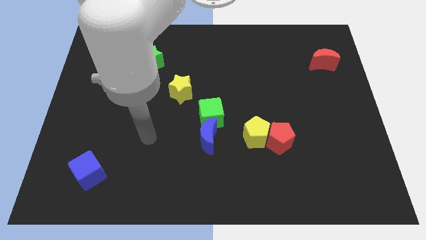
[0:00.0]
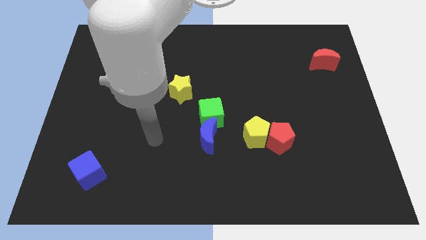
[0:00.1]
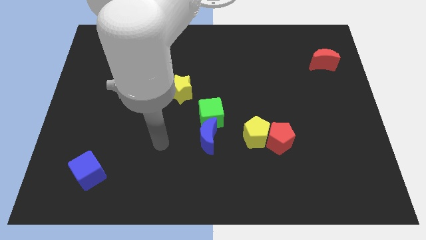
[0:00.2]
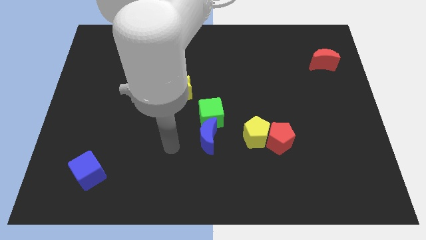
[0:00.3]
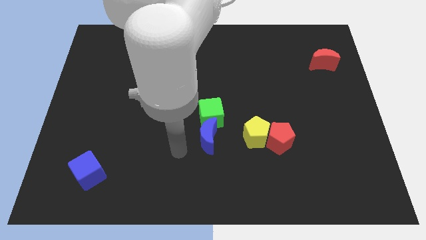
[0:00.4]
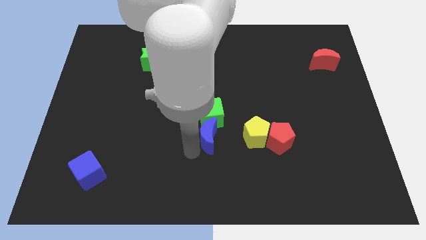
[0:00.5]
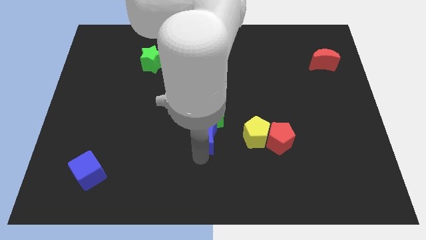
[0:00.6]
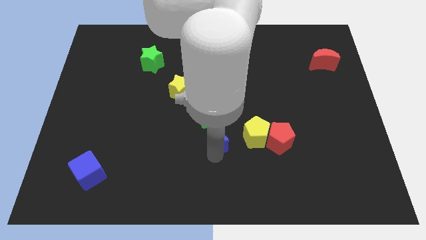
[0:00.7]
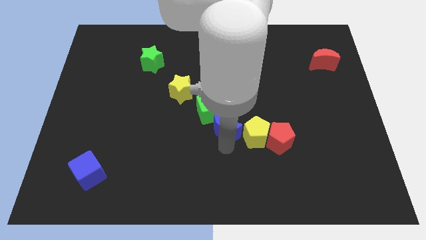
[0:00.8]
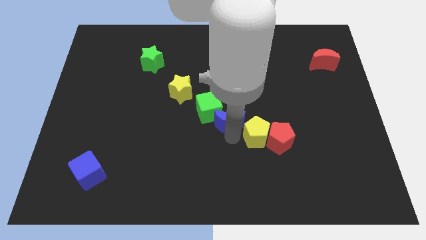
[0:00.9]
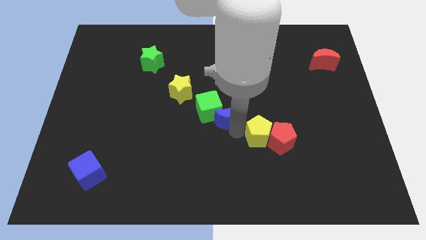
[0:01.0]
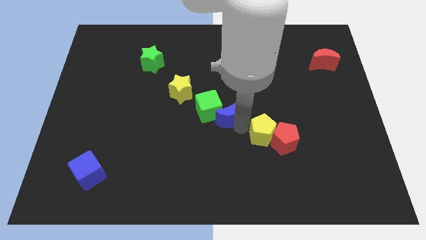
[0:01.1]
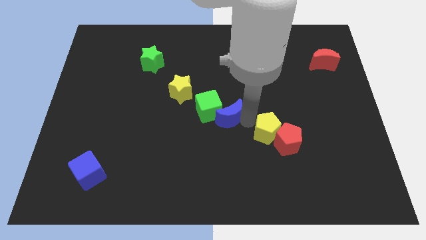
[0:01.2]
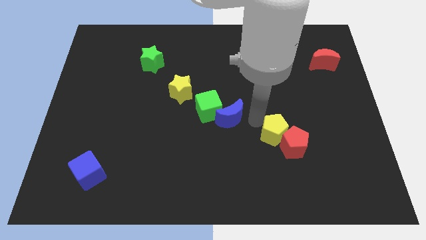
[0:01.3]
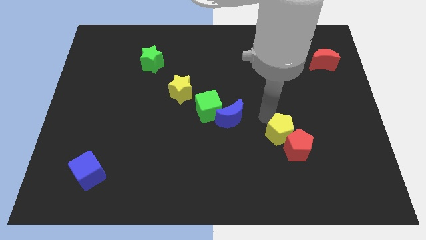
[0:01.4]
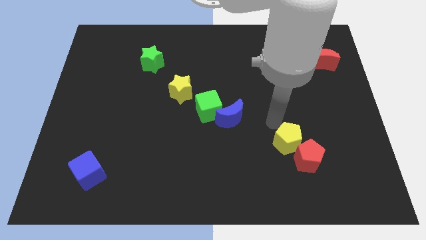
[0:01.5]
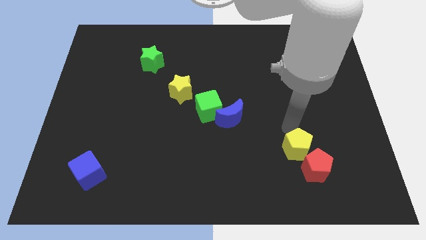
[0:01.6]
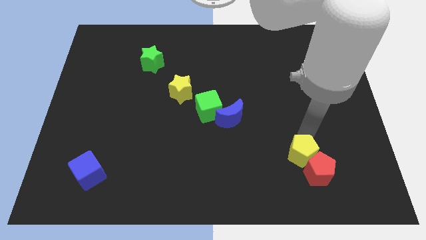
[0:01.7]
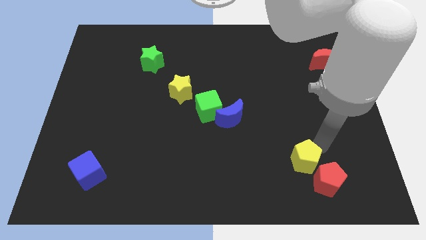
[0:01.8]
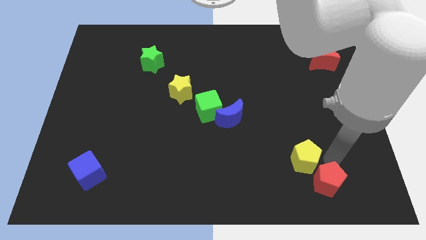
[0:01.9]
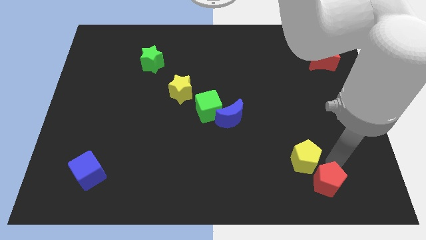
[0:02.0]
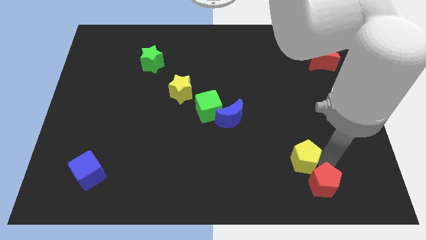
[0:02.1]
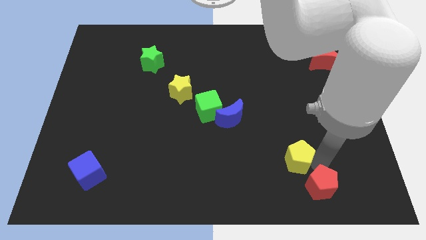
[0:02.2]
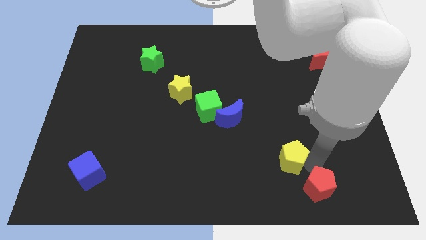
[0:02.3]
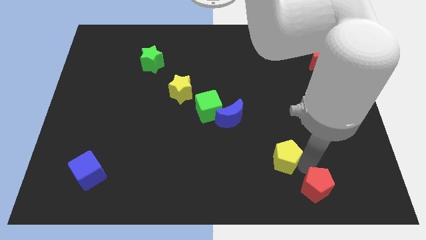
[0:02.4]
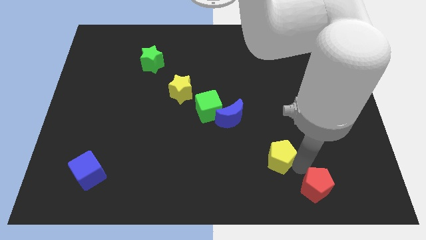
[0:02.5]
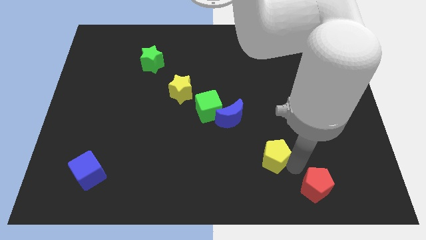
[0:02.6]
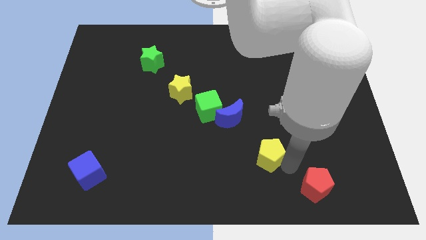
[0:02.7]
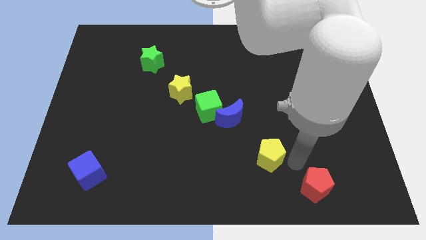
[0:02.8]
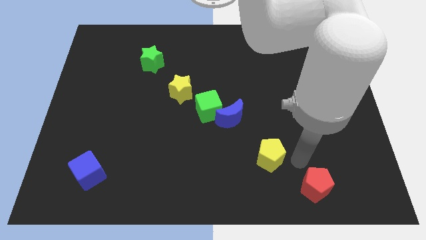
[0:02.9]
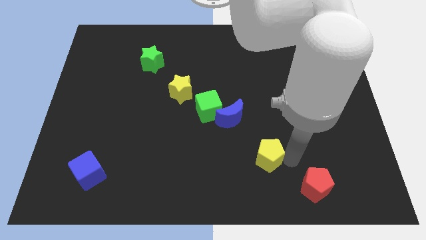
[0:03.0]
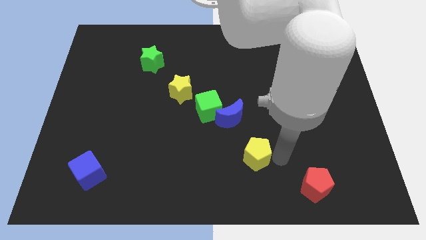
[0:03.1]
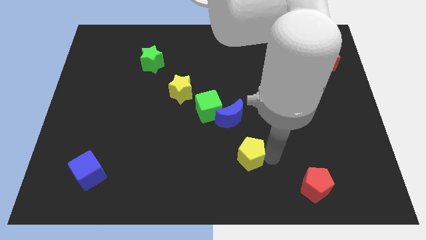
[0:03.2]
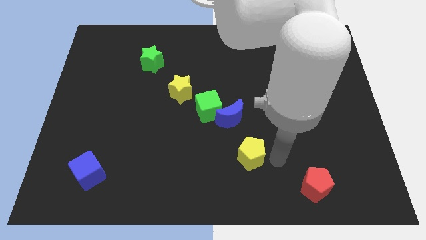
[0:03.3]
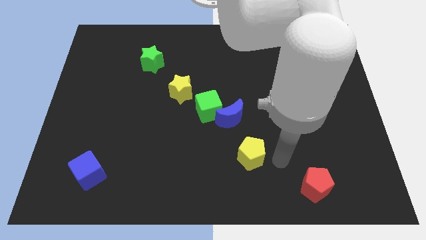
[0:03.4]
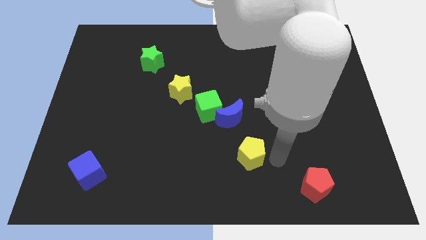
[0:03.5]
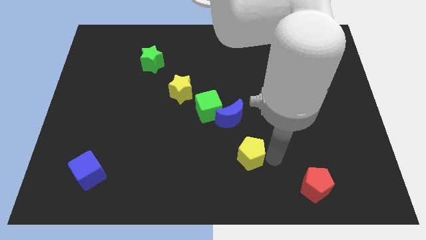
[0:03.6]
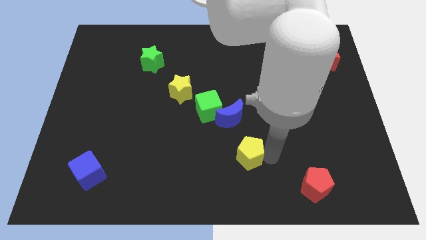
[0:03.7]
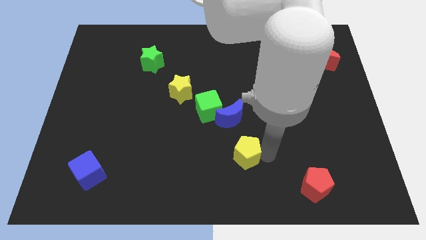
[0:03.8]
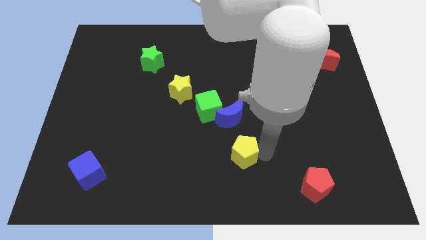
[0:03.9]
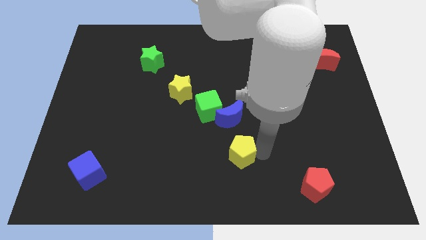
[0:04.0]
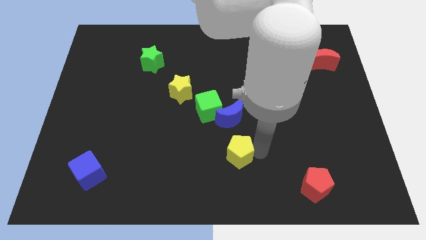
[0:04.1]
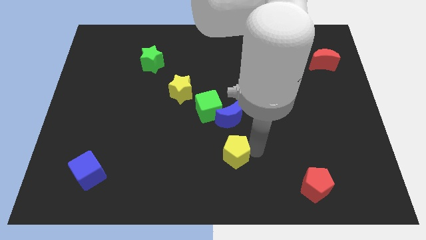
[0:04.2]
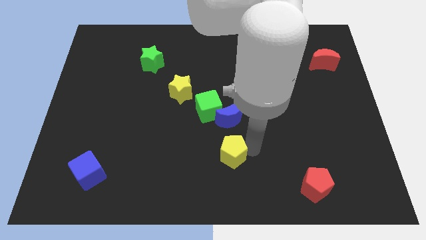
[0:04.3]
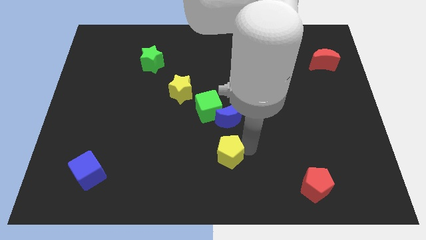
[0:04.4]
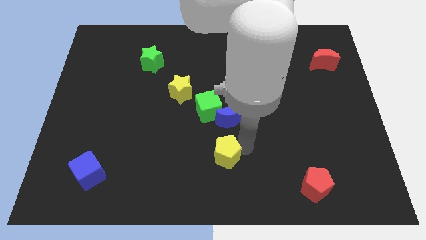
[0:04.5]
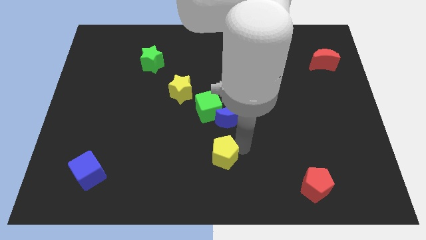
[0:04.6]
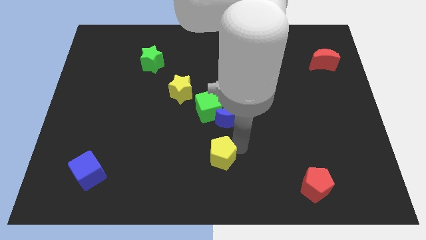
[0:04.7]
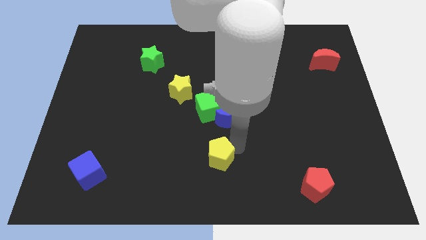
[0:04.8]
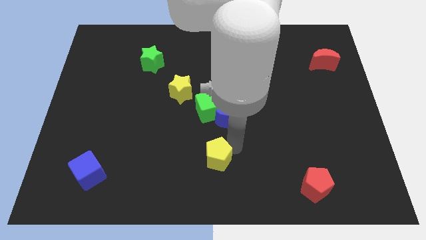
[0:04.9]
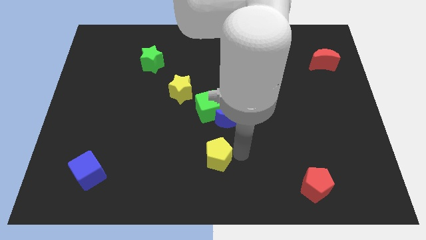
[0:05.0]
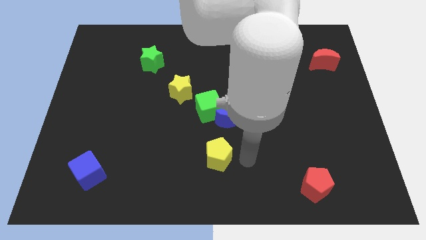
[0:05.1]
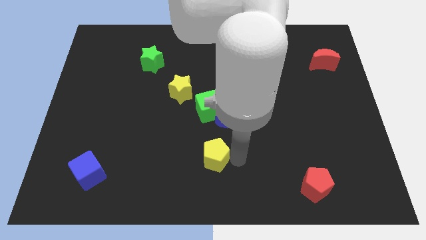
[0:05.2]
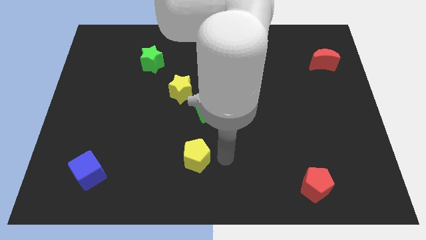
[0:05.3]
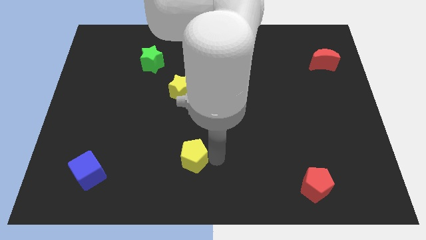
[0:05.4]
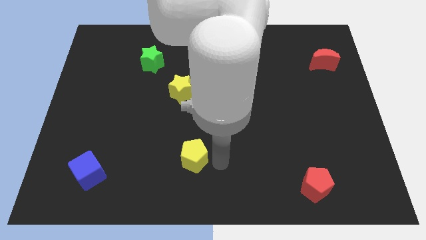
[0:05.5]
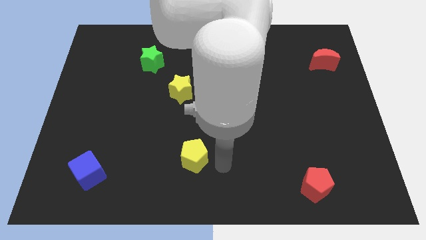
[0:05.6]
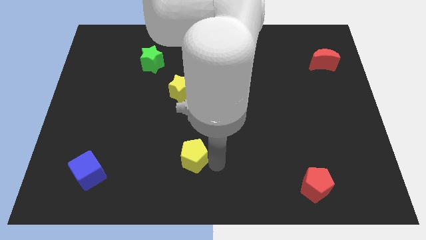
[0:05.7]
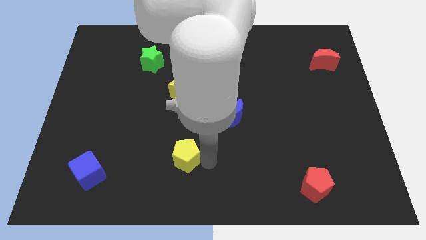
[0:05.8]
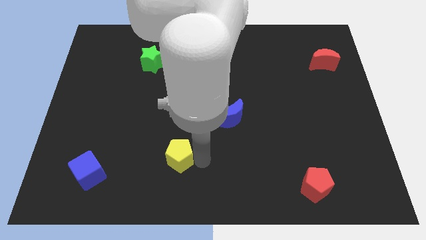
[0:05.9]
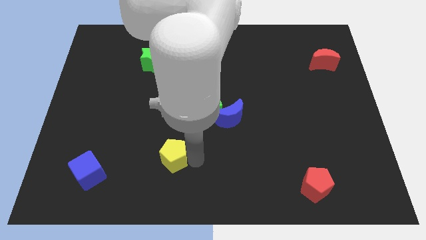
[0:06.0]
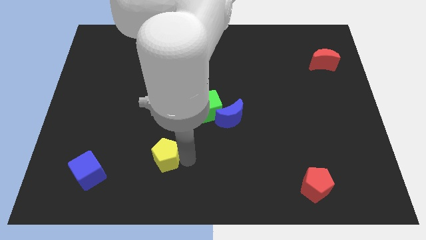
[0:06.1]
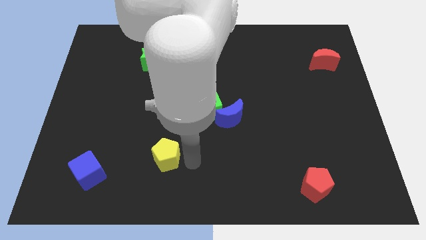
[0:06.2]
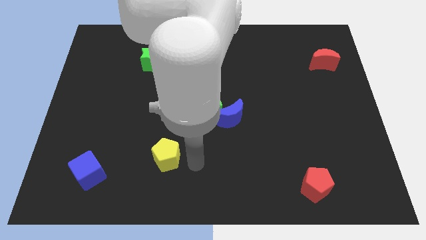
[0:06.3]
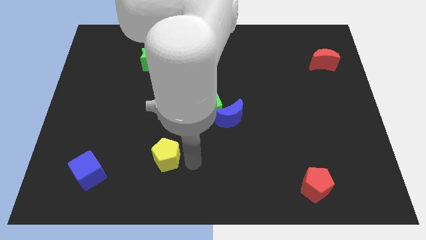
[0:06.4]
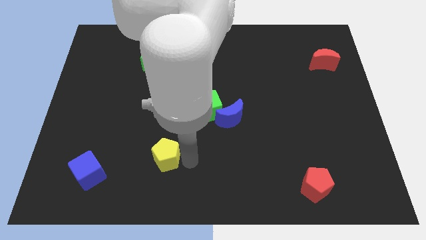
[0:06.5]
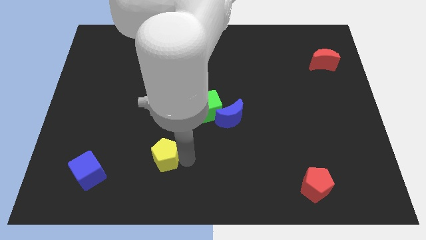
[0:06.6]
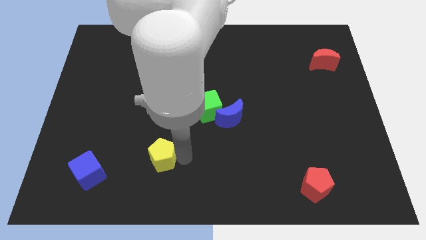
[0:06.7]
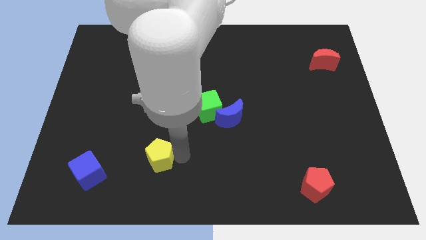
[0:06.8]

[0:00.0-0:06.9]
slide the yellow pentagon to the left

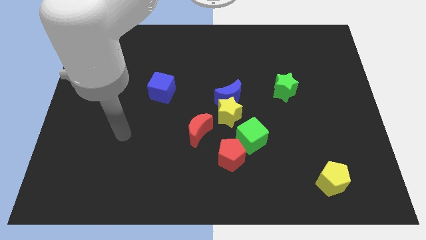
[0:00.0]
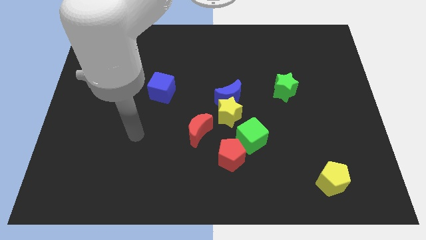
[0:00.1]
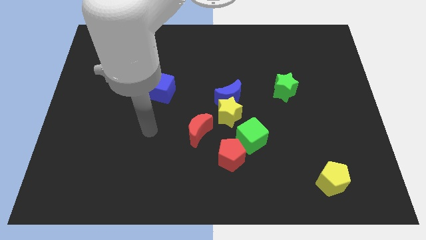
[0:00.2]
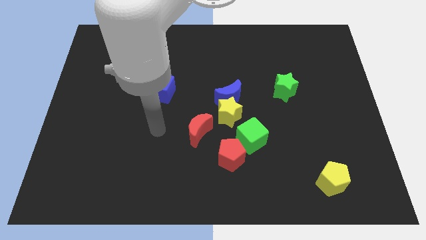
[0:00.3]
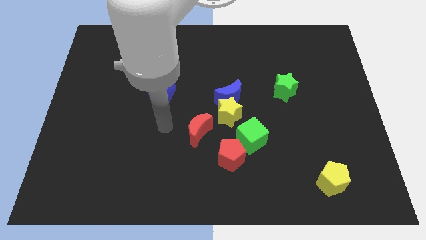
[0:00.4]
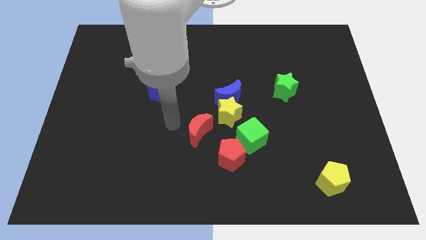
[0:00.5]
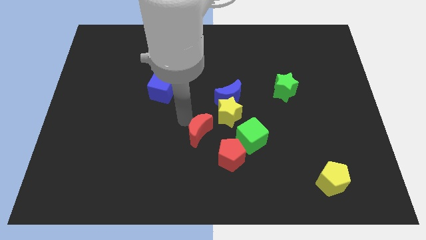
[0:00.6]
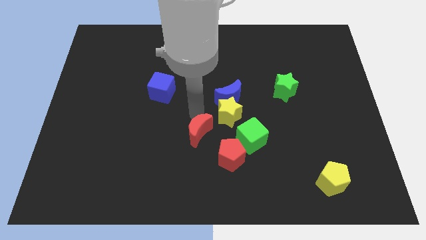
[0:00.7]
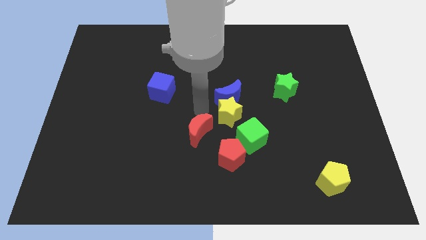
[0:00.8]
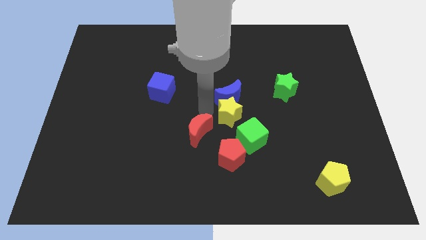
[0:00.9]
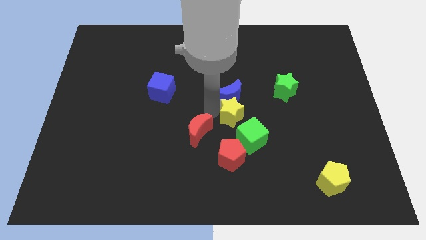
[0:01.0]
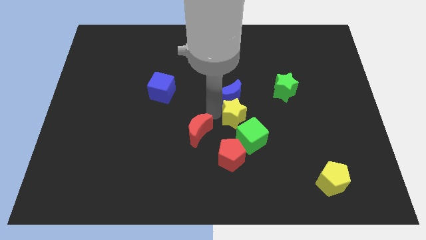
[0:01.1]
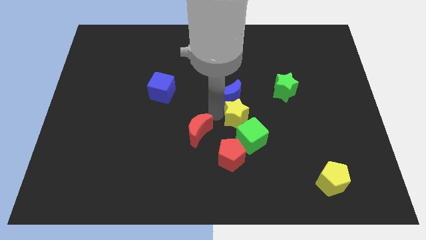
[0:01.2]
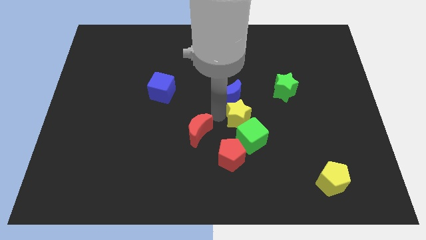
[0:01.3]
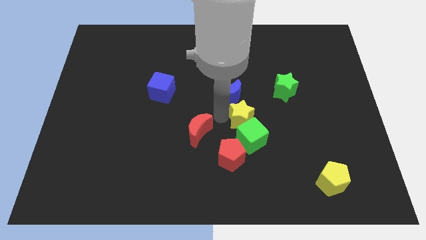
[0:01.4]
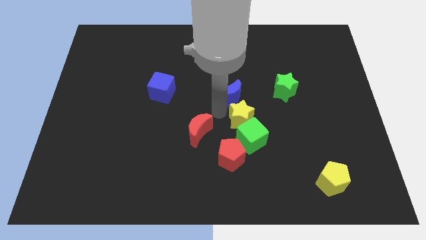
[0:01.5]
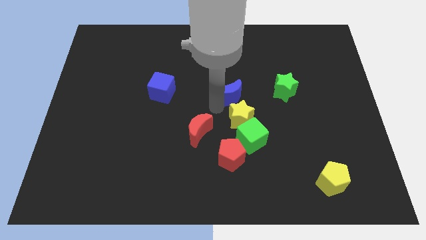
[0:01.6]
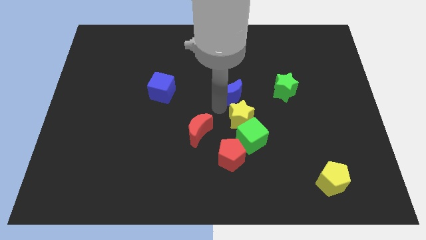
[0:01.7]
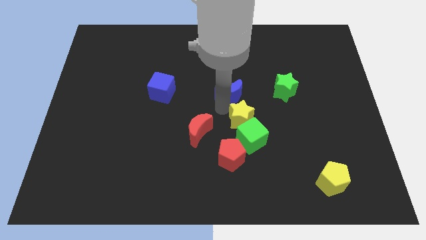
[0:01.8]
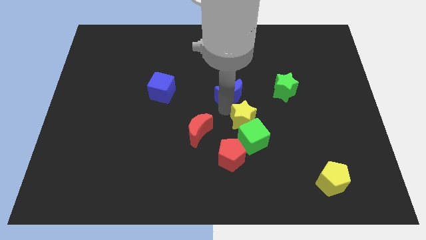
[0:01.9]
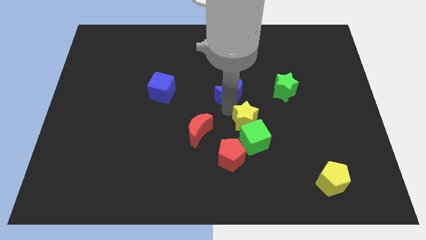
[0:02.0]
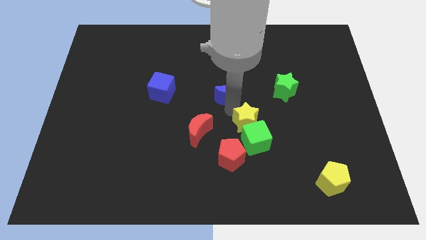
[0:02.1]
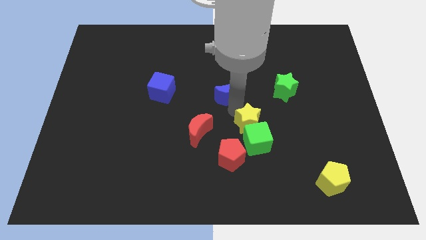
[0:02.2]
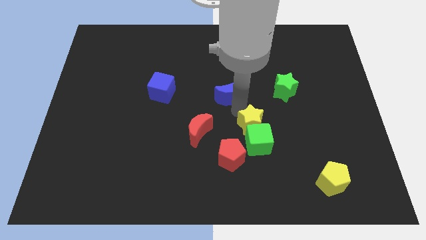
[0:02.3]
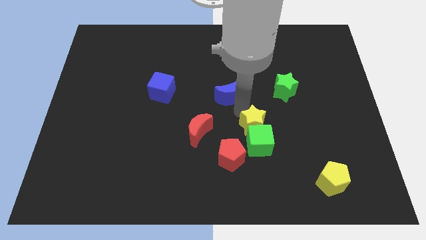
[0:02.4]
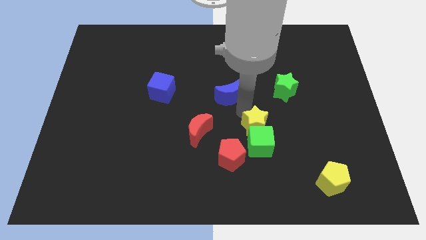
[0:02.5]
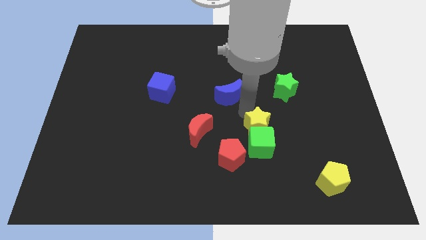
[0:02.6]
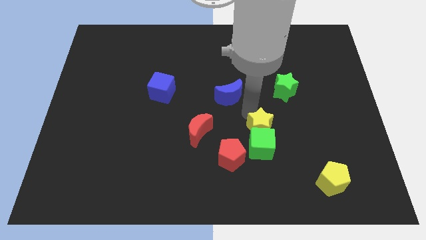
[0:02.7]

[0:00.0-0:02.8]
push the yellow star slightly down and to the right
